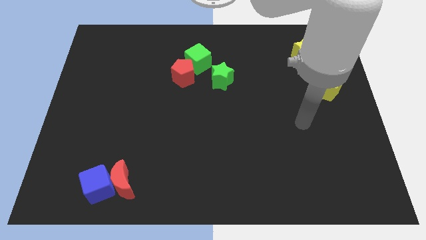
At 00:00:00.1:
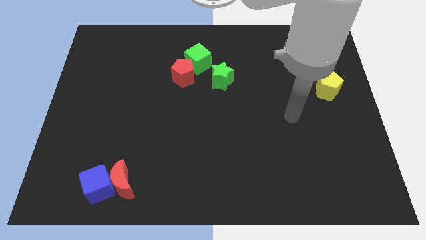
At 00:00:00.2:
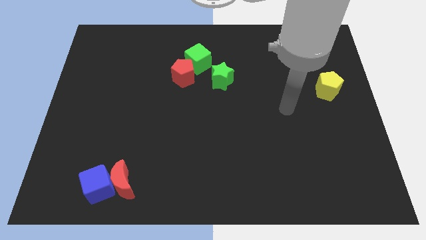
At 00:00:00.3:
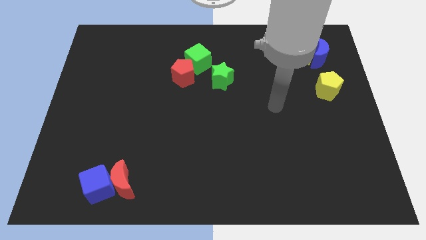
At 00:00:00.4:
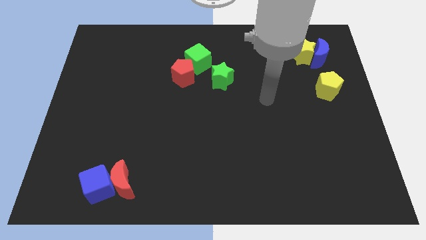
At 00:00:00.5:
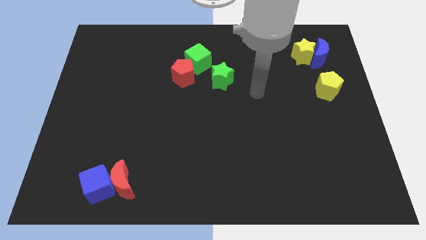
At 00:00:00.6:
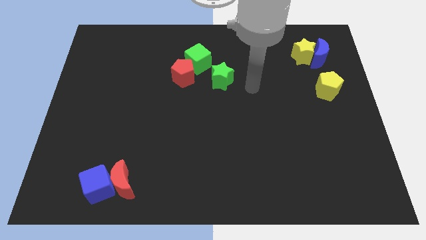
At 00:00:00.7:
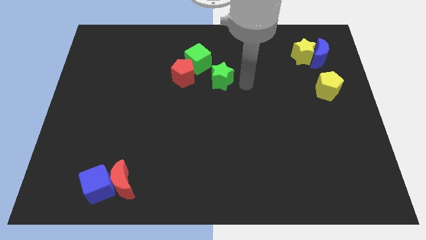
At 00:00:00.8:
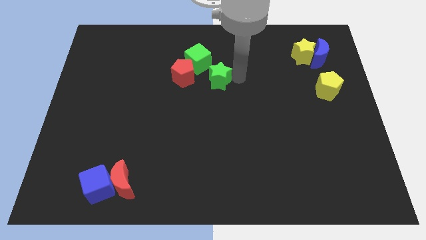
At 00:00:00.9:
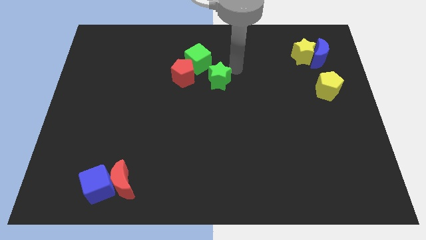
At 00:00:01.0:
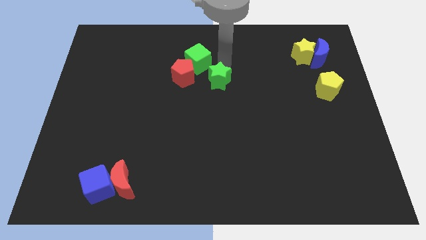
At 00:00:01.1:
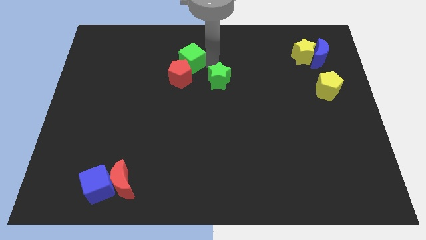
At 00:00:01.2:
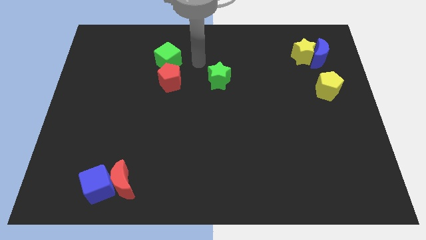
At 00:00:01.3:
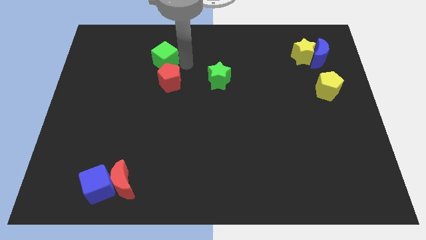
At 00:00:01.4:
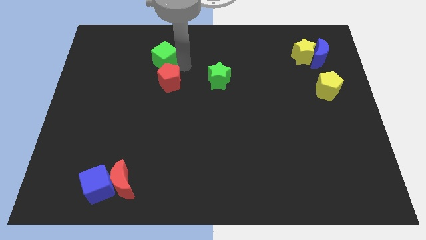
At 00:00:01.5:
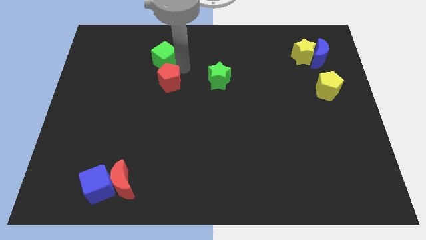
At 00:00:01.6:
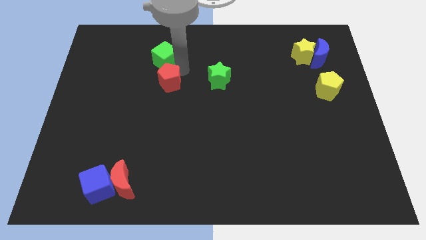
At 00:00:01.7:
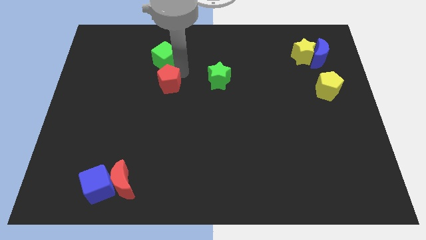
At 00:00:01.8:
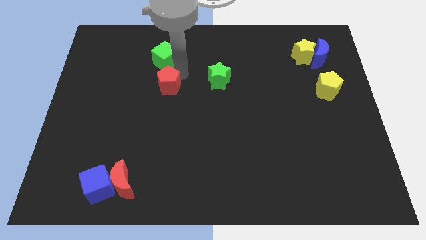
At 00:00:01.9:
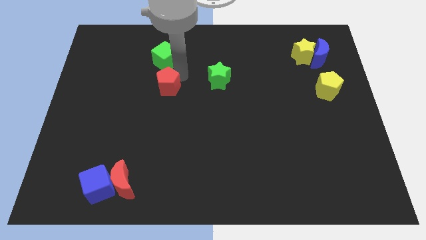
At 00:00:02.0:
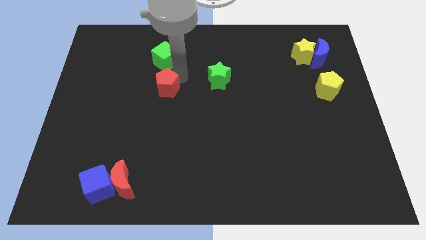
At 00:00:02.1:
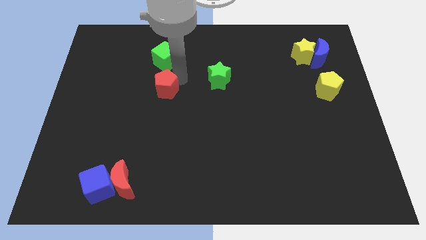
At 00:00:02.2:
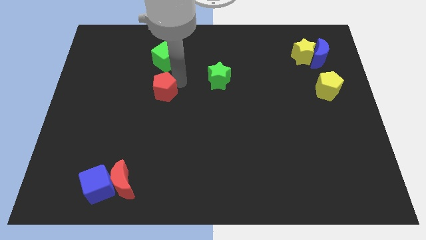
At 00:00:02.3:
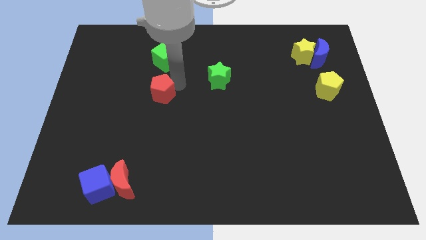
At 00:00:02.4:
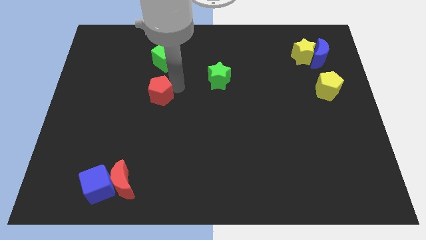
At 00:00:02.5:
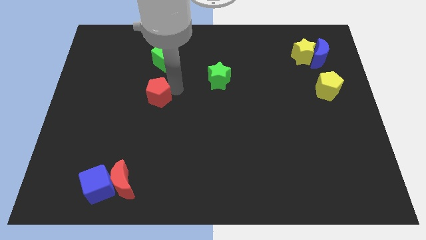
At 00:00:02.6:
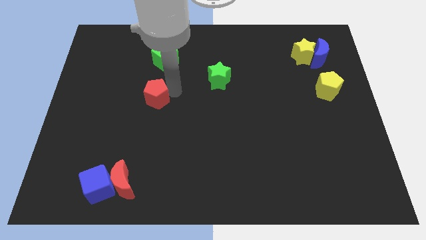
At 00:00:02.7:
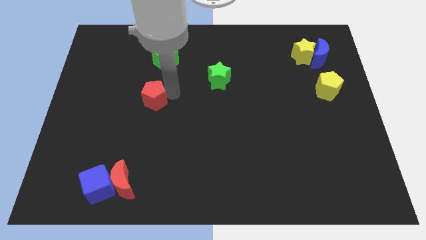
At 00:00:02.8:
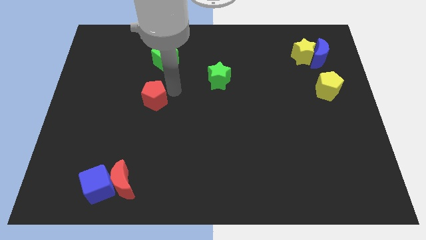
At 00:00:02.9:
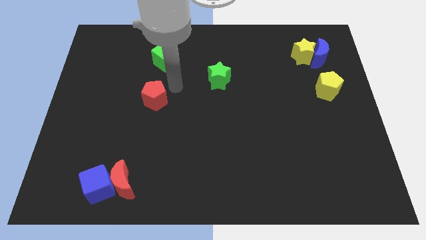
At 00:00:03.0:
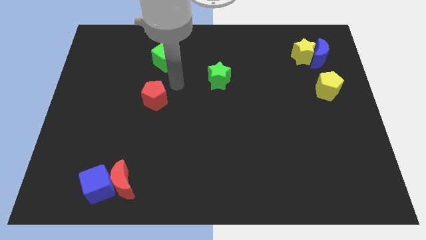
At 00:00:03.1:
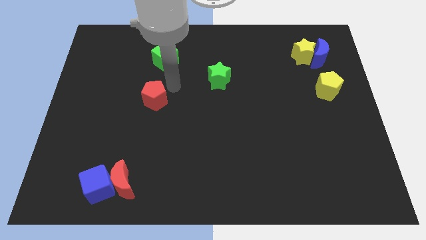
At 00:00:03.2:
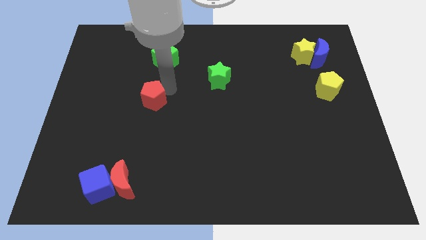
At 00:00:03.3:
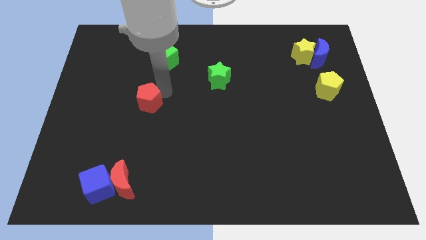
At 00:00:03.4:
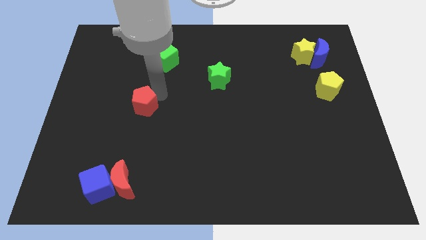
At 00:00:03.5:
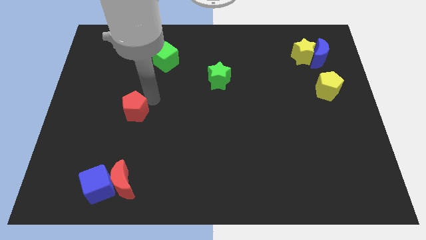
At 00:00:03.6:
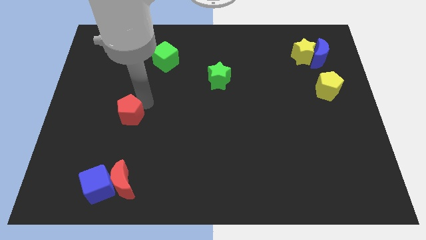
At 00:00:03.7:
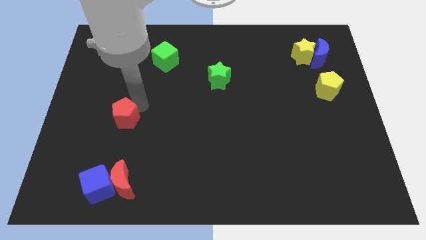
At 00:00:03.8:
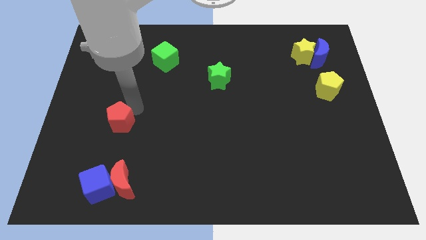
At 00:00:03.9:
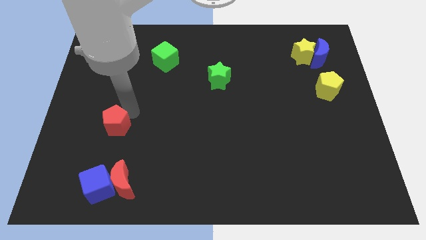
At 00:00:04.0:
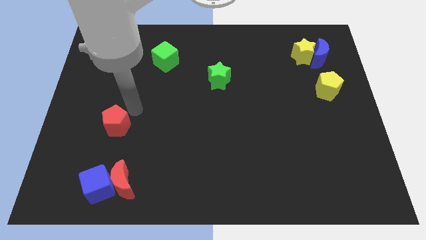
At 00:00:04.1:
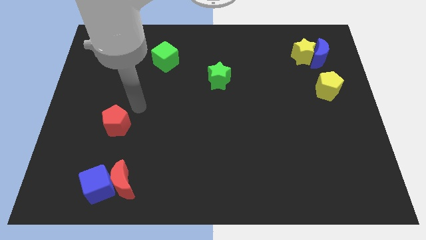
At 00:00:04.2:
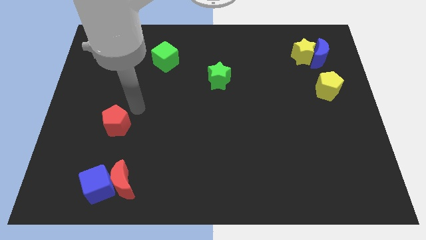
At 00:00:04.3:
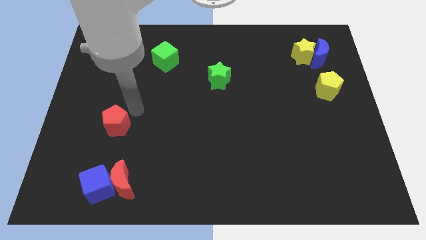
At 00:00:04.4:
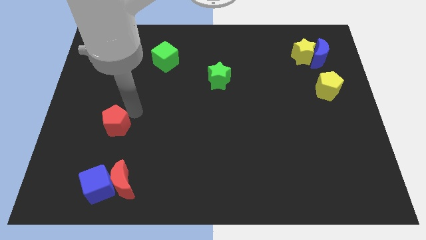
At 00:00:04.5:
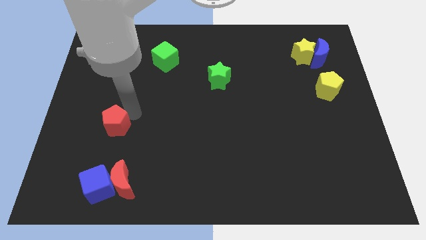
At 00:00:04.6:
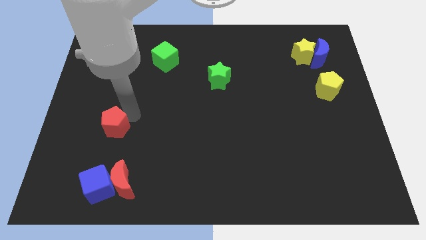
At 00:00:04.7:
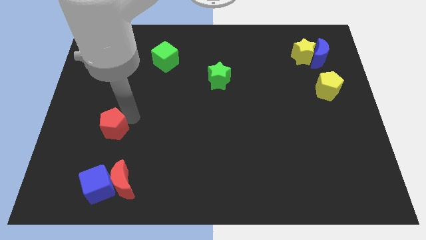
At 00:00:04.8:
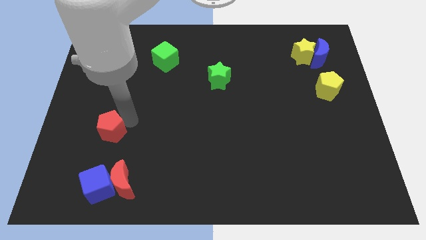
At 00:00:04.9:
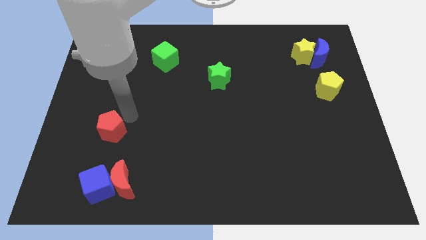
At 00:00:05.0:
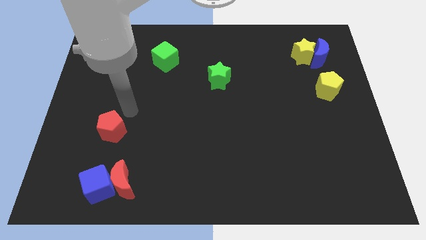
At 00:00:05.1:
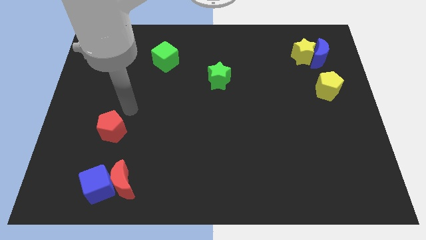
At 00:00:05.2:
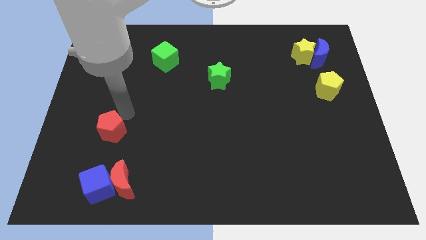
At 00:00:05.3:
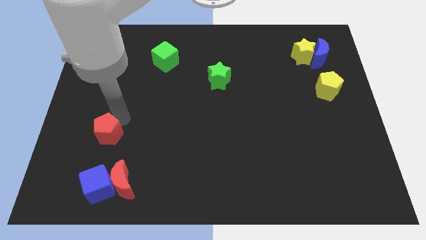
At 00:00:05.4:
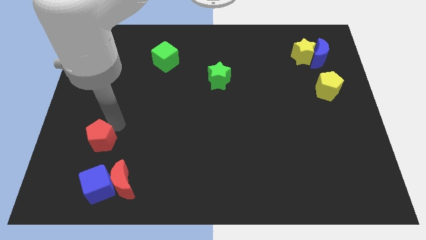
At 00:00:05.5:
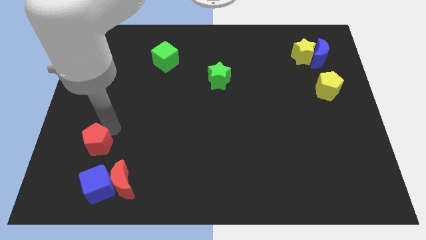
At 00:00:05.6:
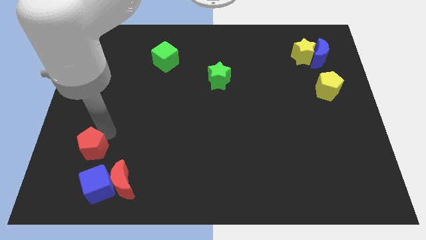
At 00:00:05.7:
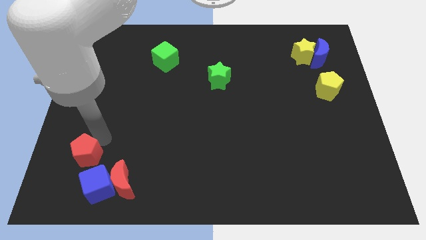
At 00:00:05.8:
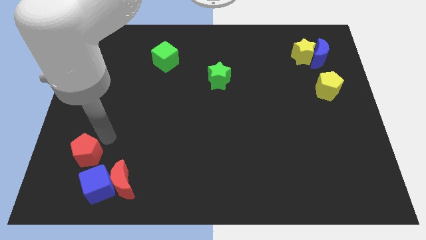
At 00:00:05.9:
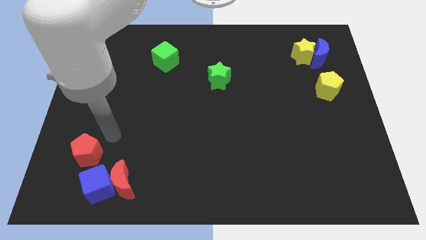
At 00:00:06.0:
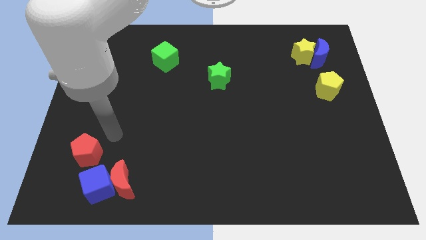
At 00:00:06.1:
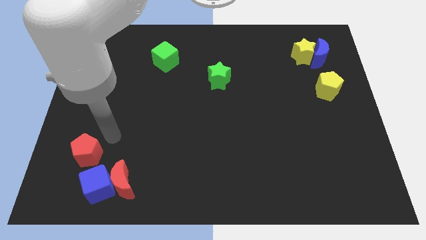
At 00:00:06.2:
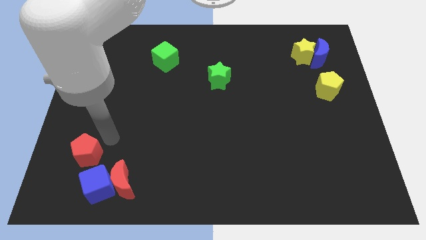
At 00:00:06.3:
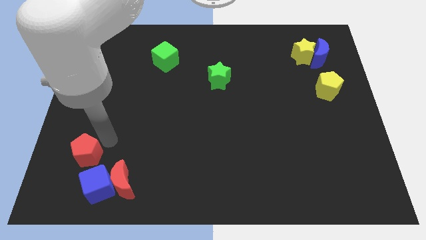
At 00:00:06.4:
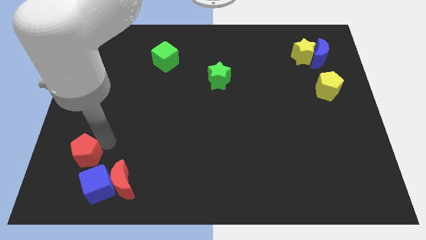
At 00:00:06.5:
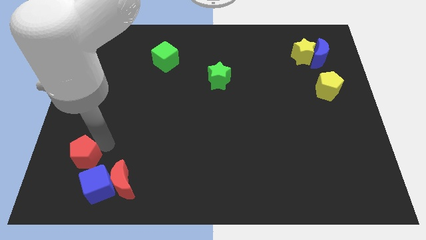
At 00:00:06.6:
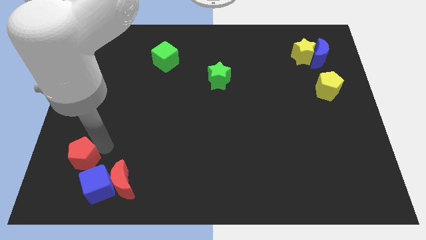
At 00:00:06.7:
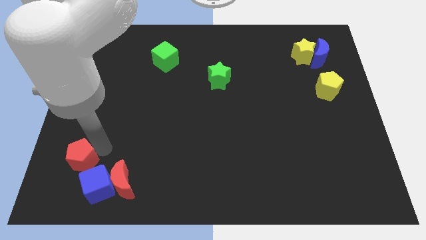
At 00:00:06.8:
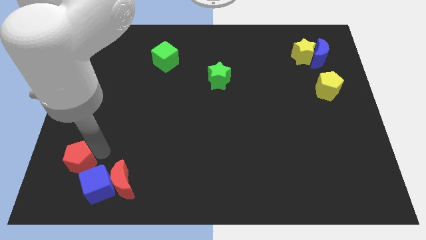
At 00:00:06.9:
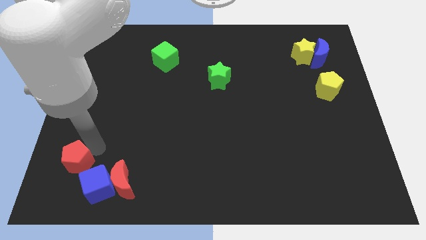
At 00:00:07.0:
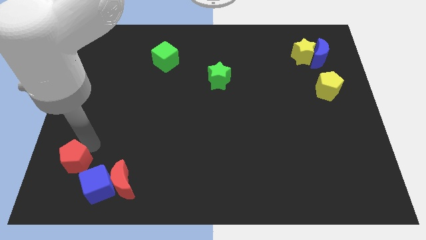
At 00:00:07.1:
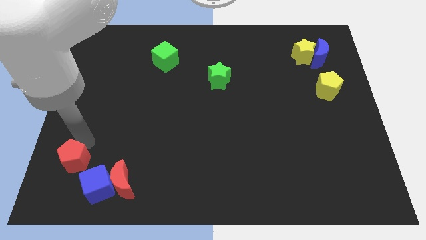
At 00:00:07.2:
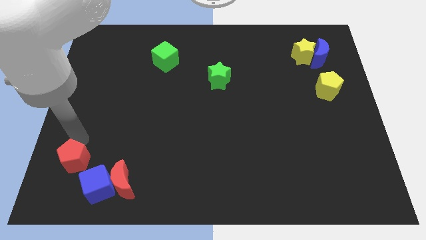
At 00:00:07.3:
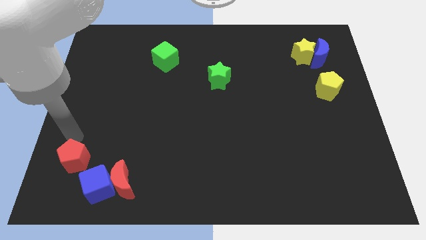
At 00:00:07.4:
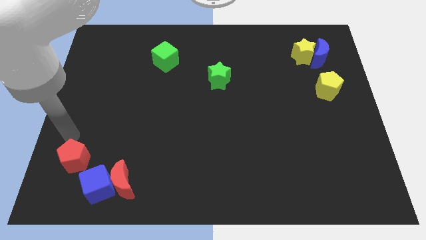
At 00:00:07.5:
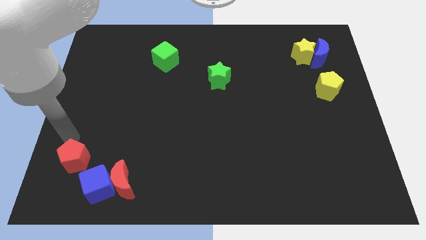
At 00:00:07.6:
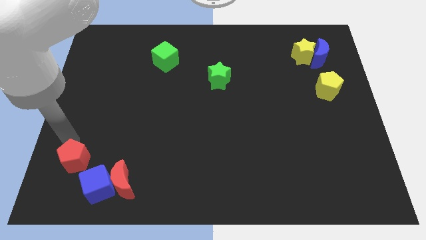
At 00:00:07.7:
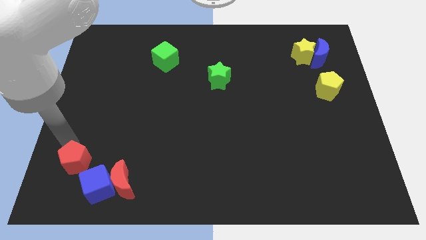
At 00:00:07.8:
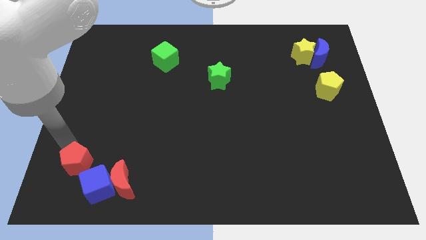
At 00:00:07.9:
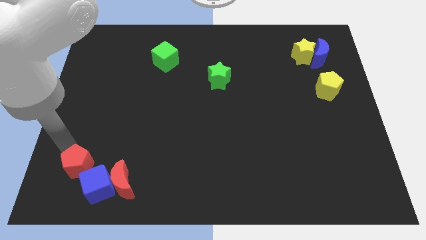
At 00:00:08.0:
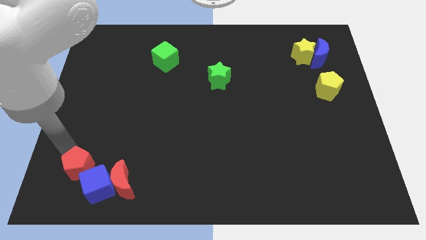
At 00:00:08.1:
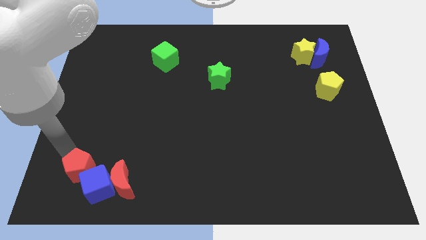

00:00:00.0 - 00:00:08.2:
push the red pentagon next to the blue cube
